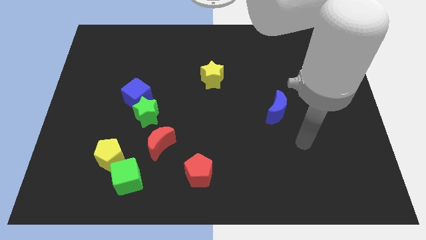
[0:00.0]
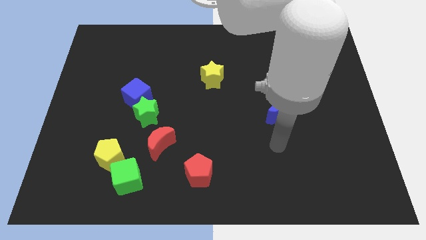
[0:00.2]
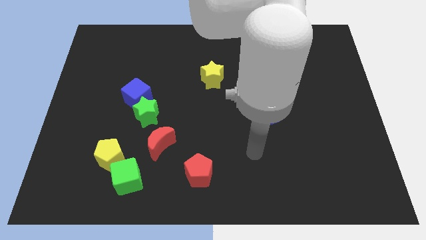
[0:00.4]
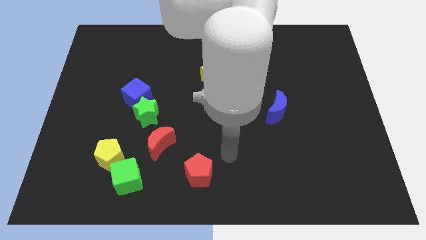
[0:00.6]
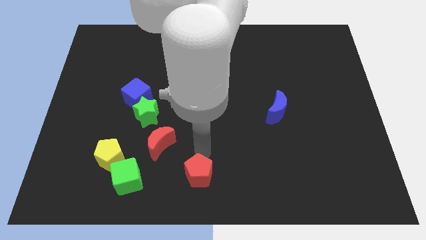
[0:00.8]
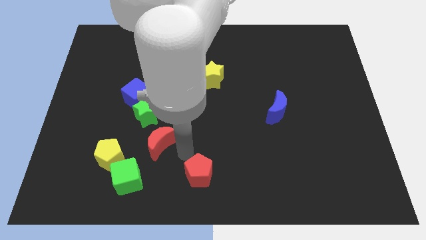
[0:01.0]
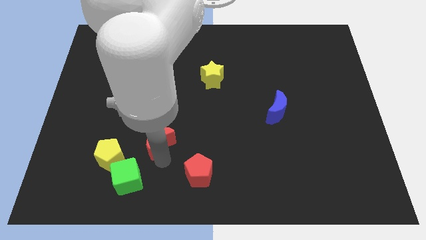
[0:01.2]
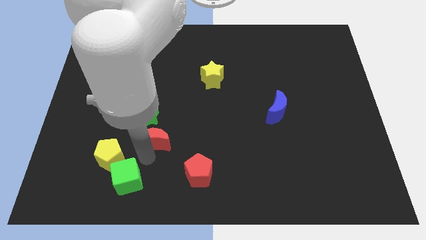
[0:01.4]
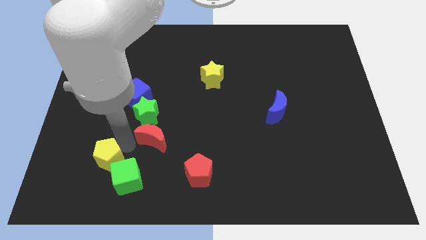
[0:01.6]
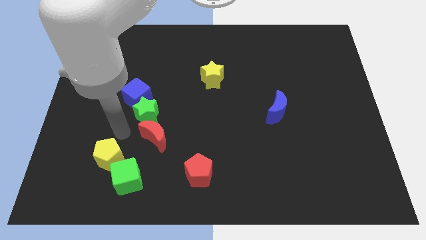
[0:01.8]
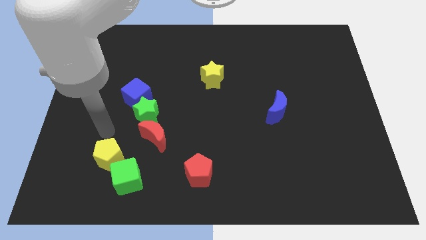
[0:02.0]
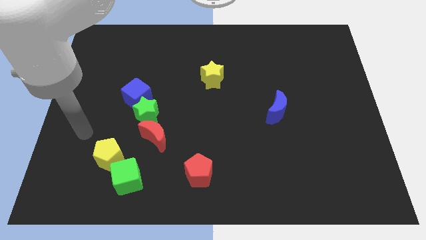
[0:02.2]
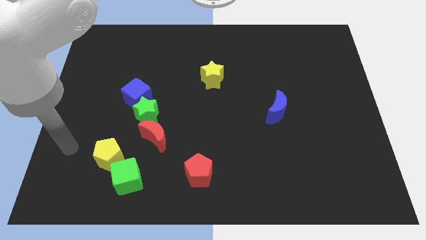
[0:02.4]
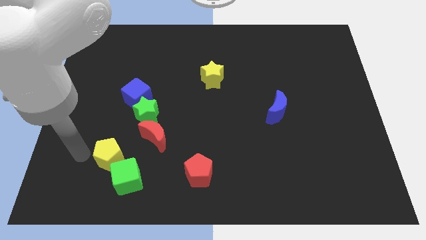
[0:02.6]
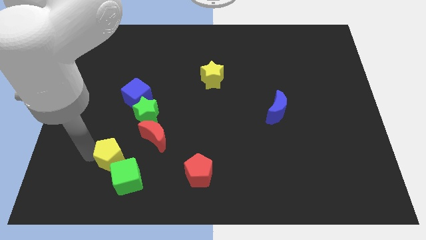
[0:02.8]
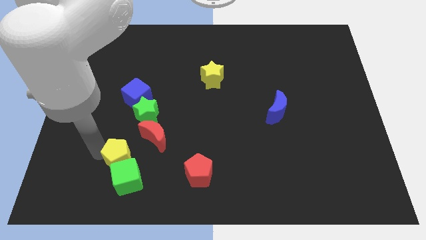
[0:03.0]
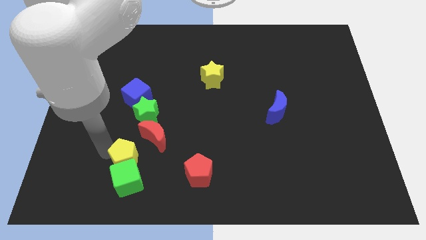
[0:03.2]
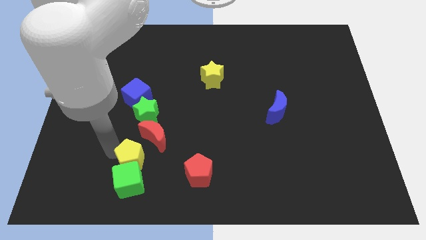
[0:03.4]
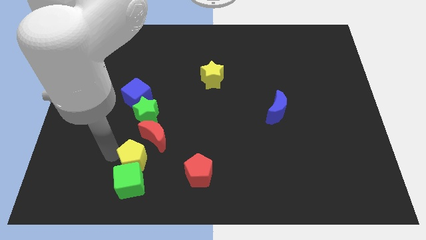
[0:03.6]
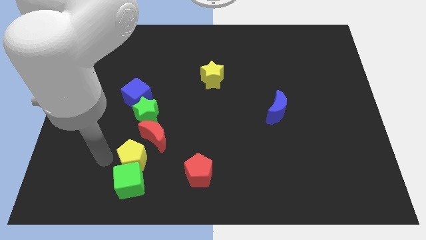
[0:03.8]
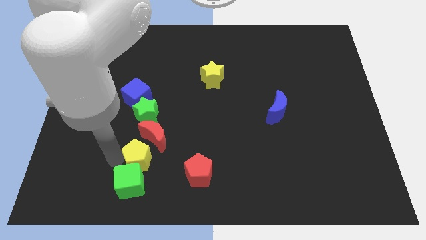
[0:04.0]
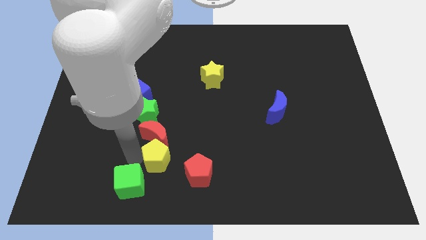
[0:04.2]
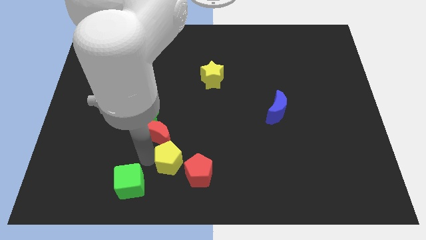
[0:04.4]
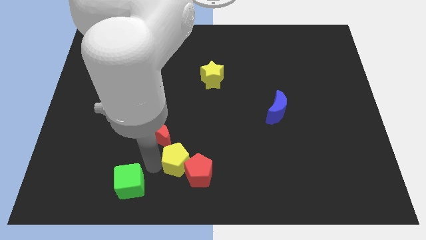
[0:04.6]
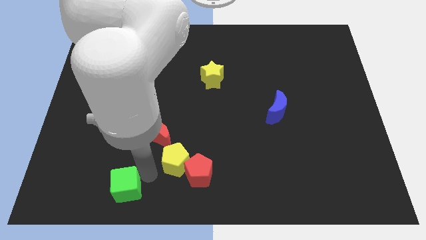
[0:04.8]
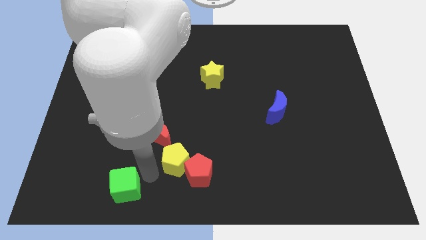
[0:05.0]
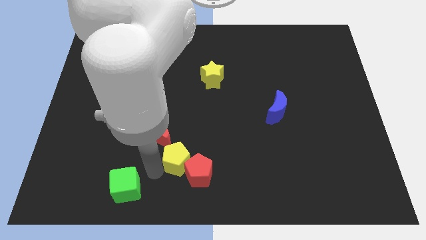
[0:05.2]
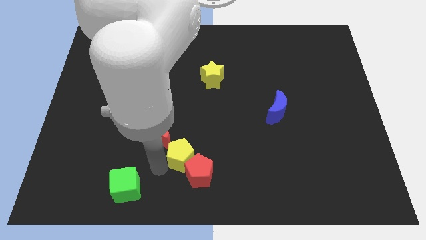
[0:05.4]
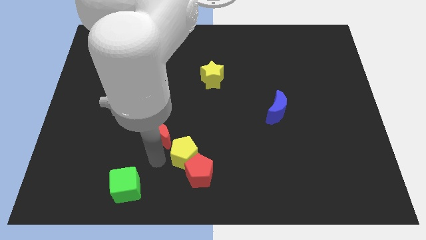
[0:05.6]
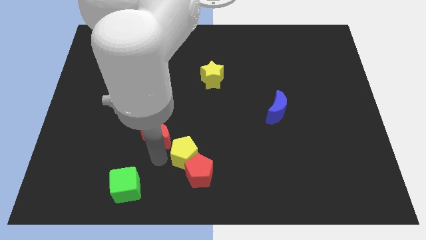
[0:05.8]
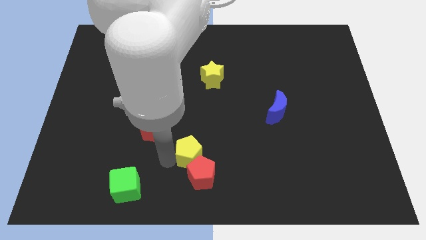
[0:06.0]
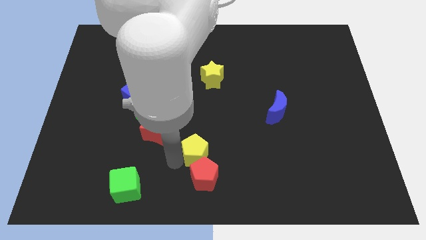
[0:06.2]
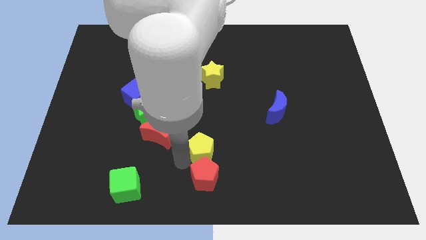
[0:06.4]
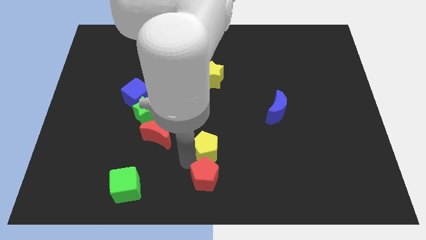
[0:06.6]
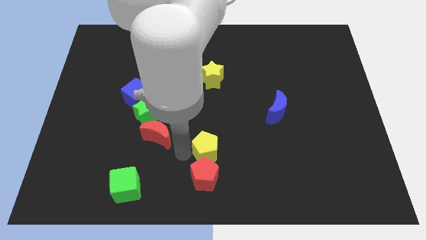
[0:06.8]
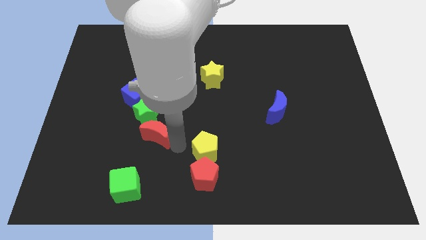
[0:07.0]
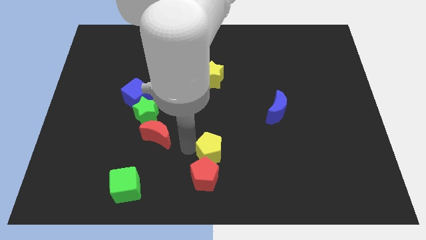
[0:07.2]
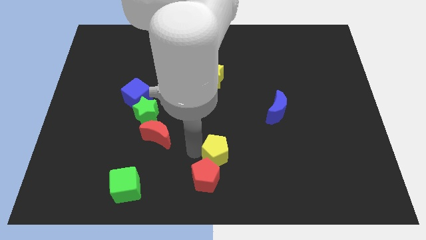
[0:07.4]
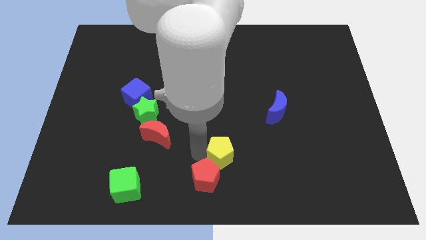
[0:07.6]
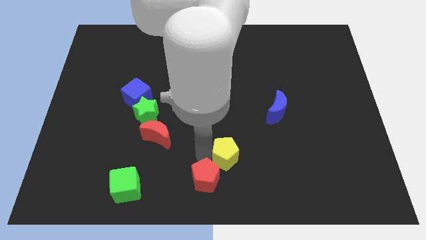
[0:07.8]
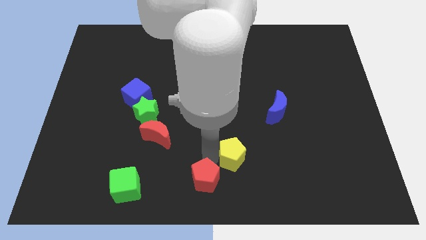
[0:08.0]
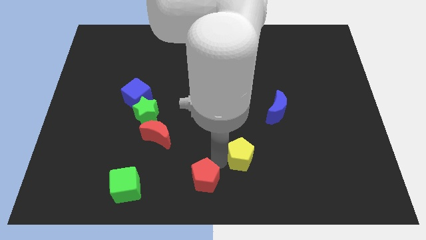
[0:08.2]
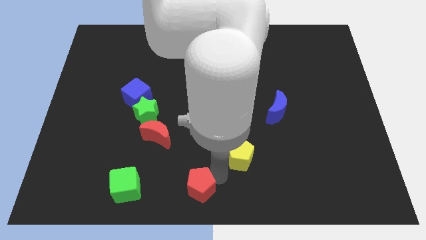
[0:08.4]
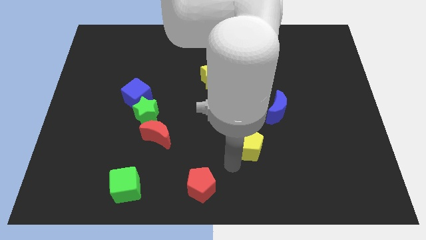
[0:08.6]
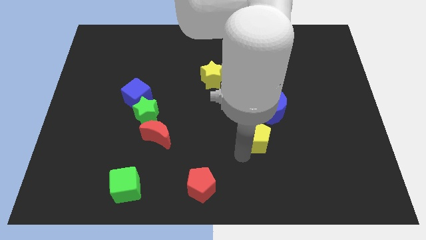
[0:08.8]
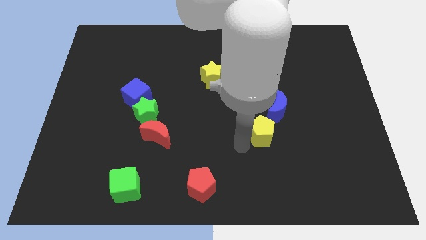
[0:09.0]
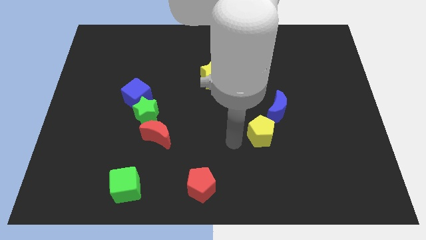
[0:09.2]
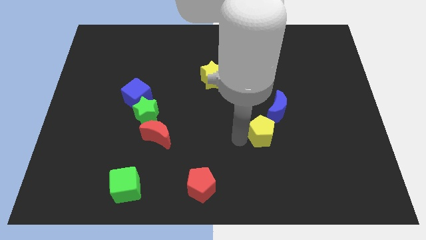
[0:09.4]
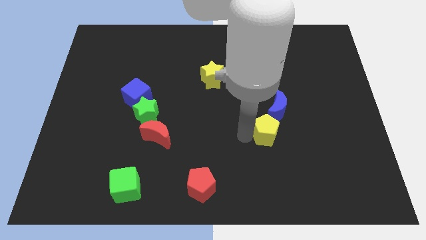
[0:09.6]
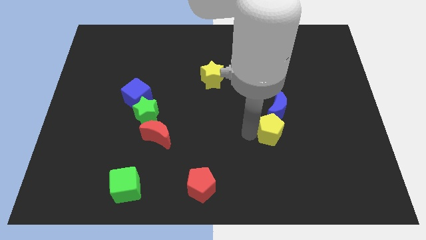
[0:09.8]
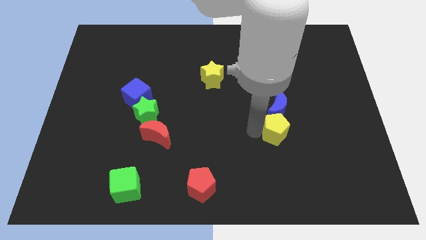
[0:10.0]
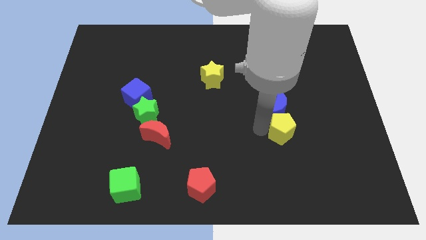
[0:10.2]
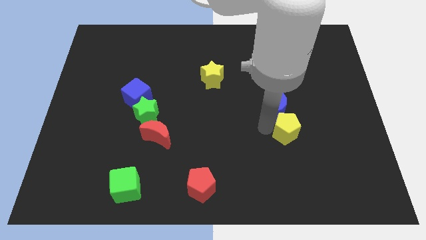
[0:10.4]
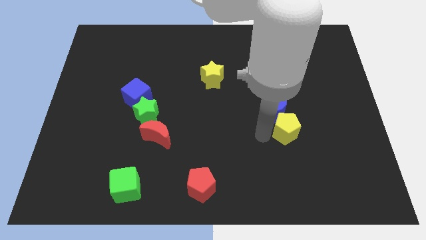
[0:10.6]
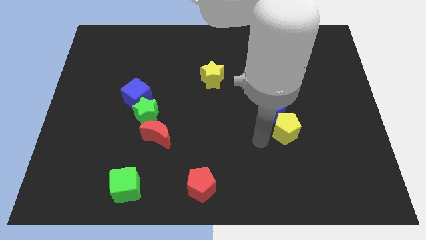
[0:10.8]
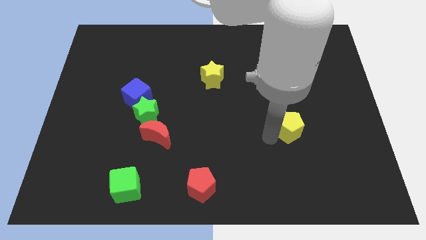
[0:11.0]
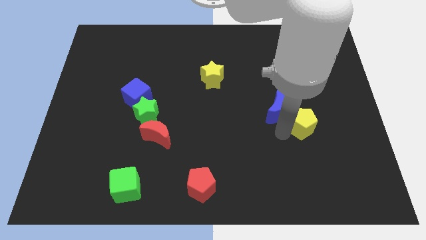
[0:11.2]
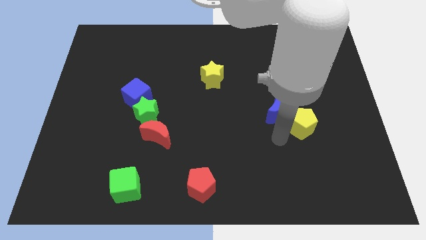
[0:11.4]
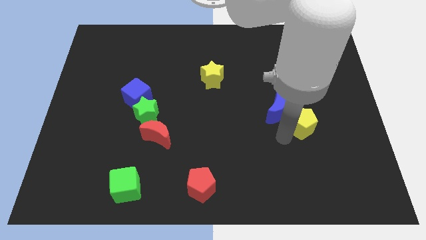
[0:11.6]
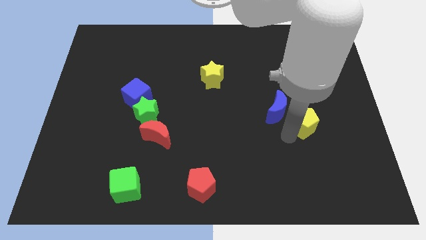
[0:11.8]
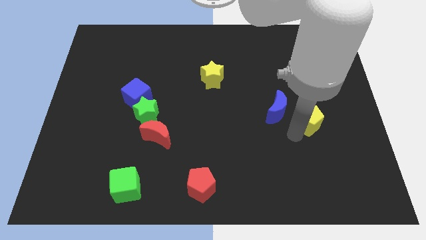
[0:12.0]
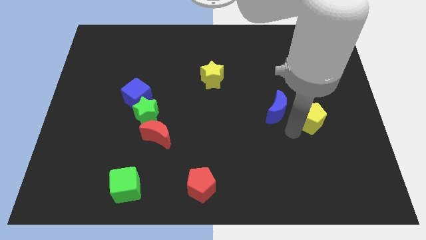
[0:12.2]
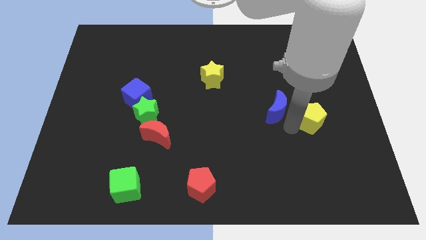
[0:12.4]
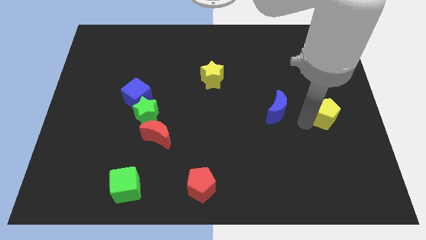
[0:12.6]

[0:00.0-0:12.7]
slide the yellow pentagon to the right side of the board
